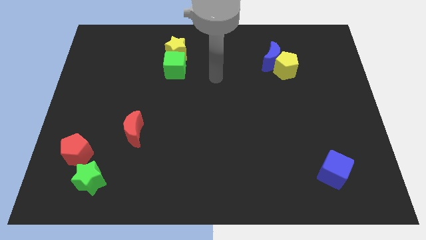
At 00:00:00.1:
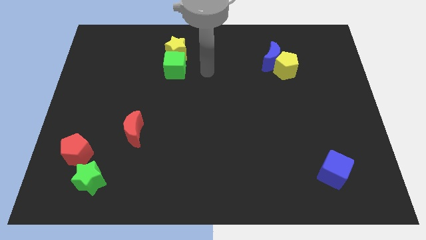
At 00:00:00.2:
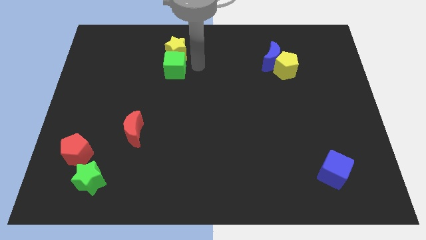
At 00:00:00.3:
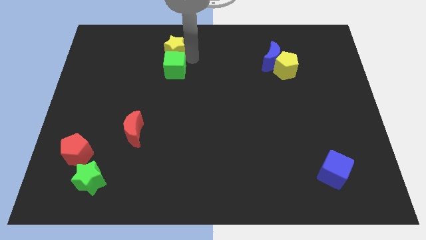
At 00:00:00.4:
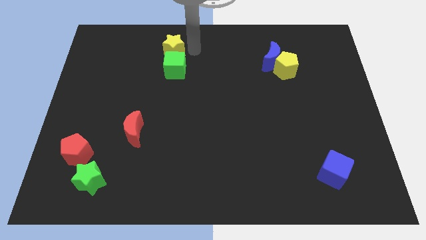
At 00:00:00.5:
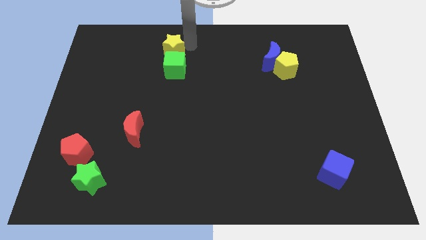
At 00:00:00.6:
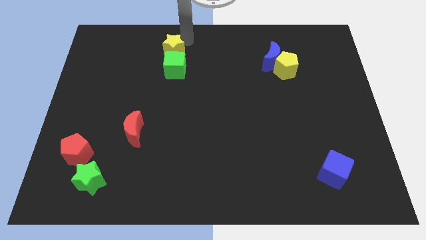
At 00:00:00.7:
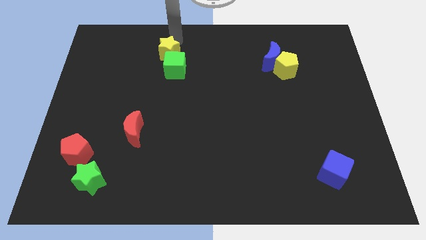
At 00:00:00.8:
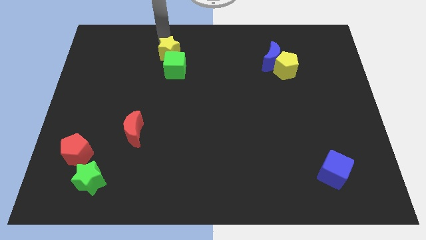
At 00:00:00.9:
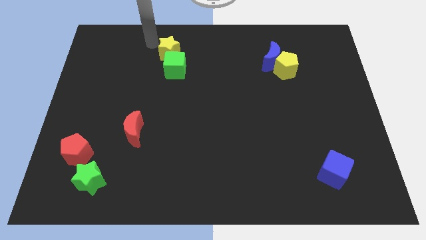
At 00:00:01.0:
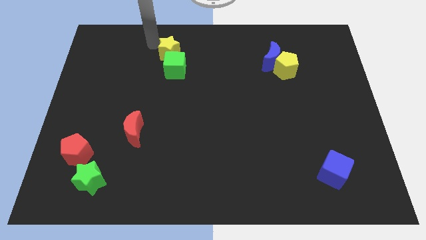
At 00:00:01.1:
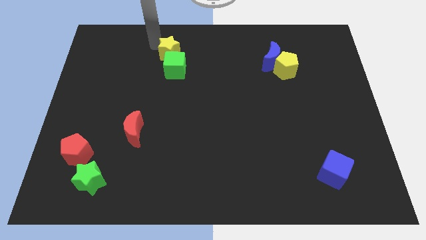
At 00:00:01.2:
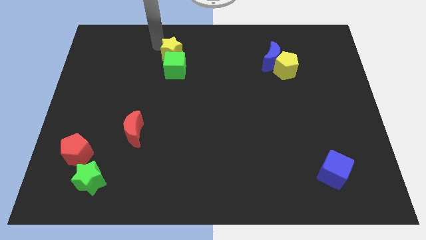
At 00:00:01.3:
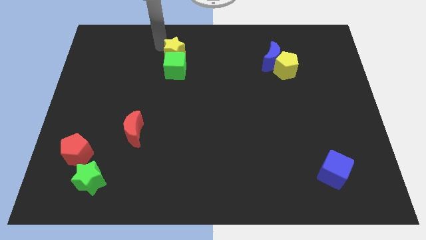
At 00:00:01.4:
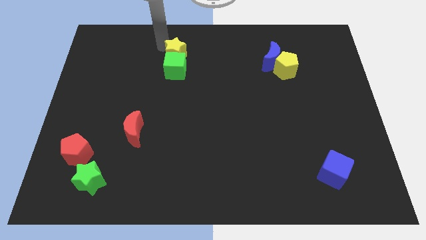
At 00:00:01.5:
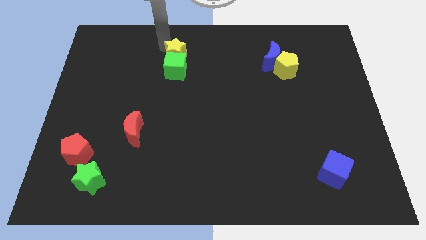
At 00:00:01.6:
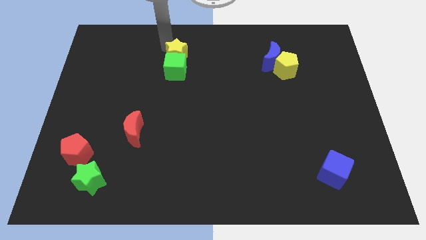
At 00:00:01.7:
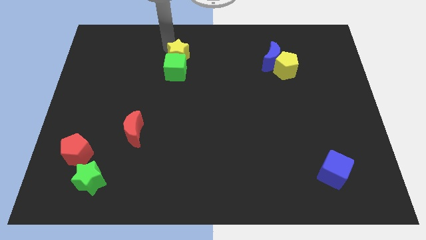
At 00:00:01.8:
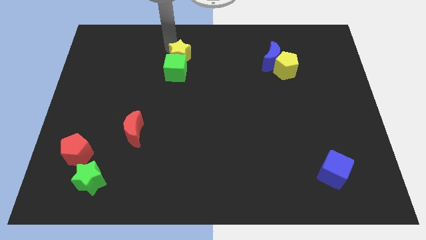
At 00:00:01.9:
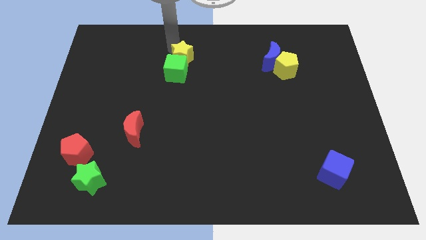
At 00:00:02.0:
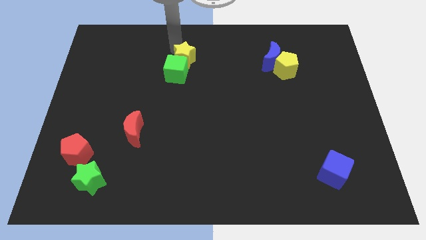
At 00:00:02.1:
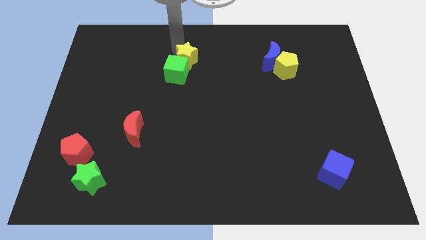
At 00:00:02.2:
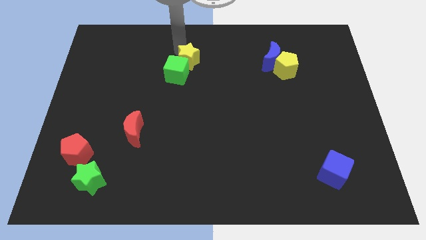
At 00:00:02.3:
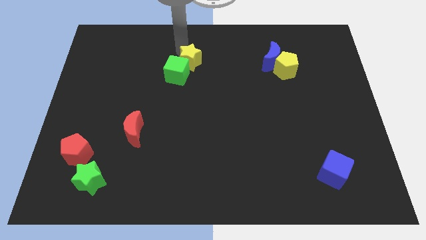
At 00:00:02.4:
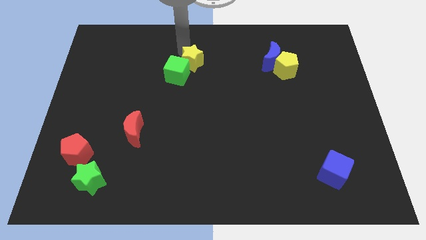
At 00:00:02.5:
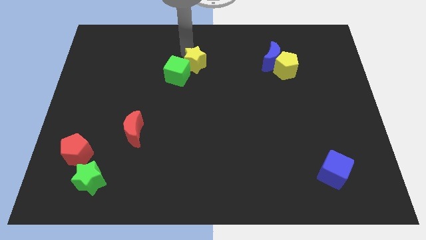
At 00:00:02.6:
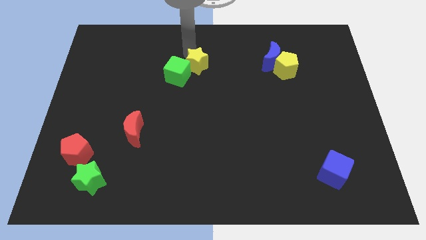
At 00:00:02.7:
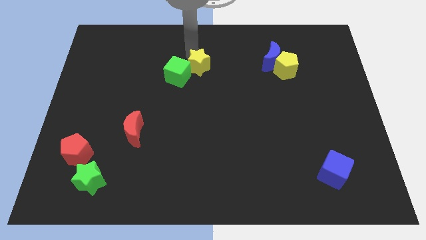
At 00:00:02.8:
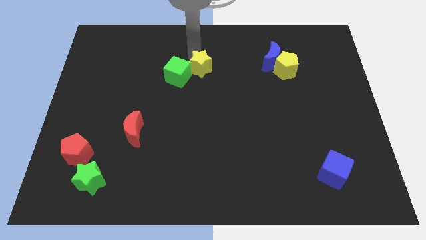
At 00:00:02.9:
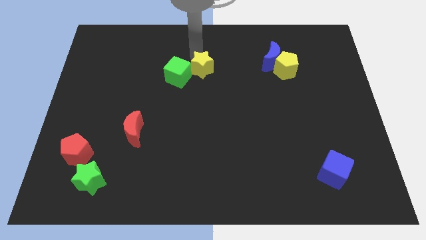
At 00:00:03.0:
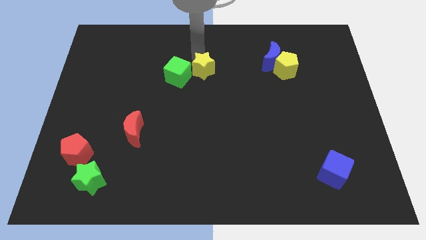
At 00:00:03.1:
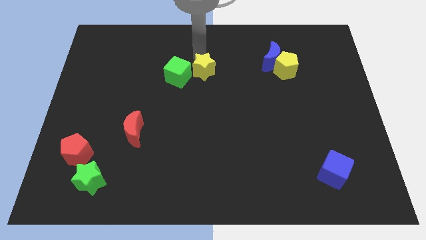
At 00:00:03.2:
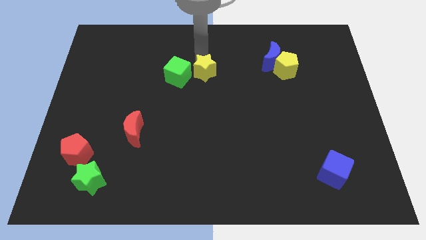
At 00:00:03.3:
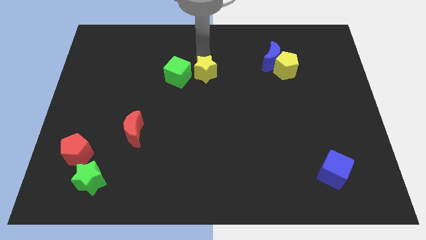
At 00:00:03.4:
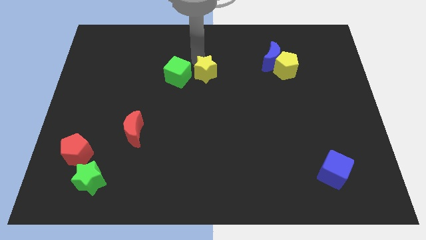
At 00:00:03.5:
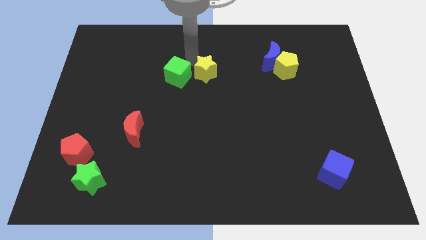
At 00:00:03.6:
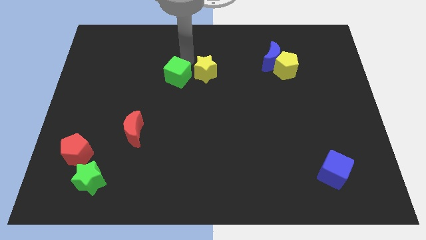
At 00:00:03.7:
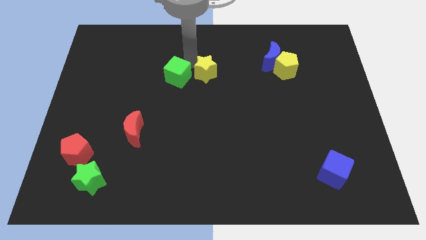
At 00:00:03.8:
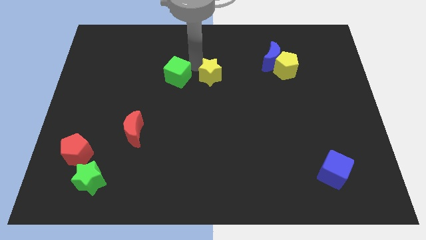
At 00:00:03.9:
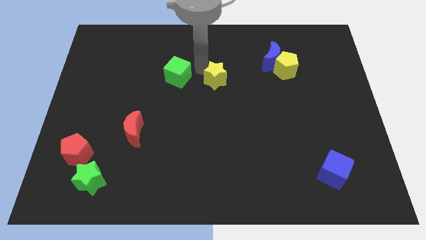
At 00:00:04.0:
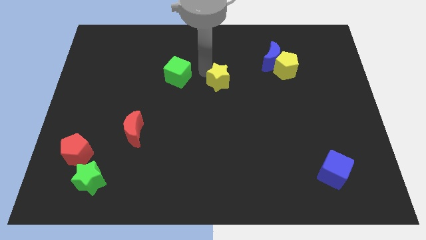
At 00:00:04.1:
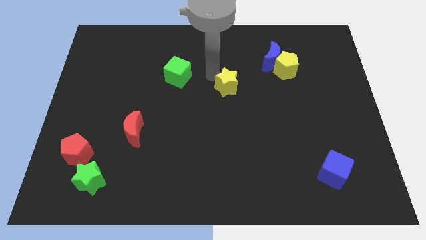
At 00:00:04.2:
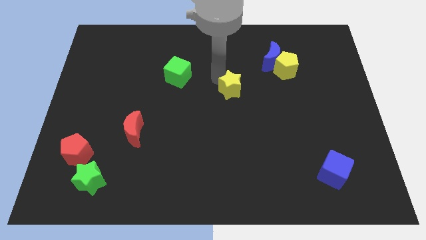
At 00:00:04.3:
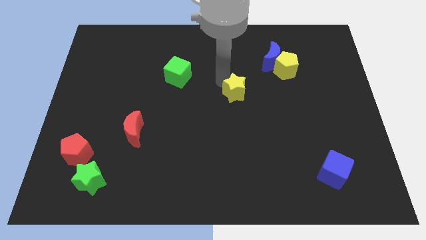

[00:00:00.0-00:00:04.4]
slide the yellow star diagonally down and to the right

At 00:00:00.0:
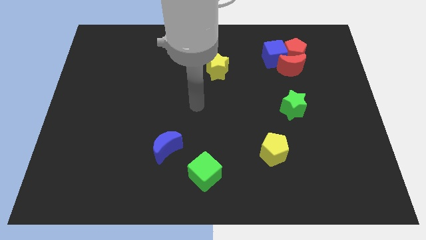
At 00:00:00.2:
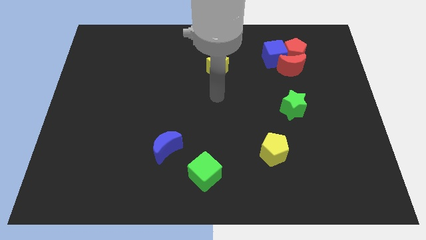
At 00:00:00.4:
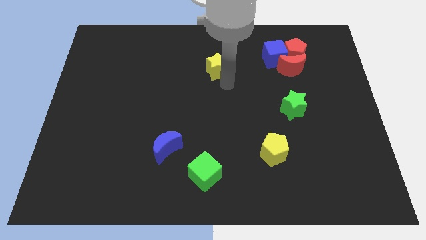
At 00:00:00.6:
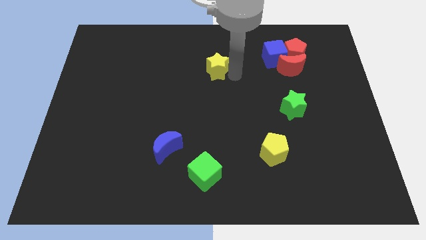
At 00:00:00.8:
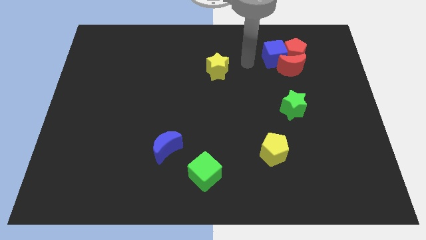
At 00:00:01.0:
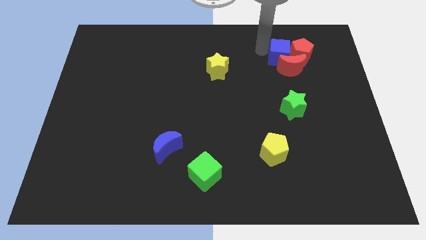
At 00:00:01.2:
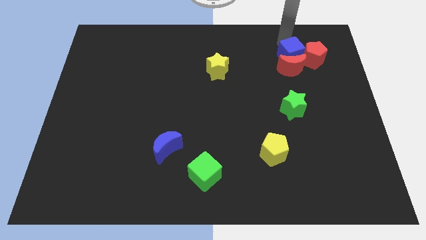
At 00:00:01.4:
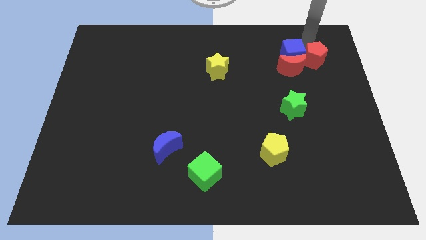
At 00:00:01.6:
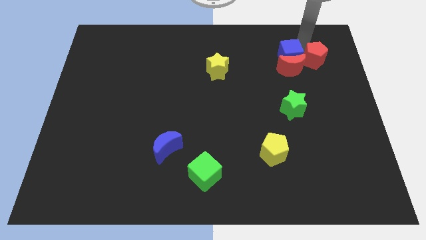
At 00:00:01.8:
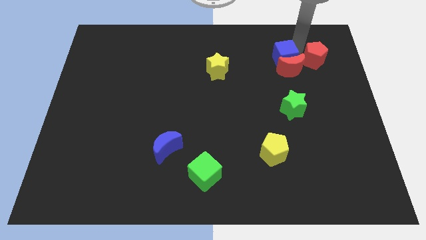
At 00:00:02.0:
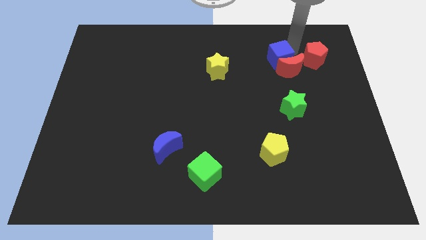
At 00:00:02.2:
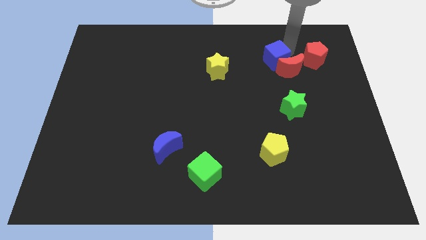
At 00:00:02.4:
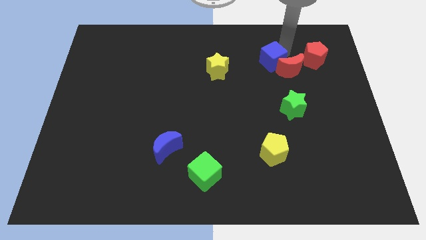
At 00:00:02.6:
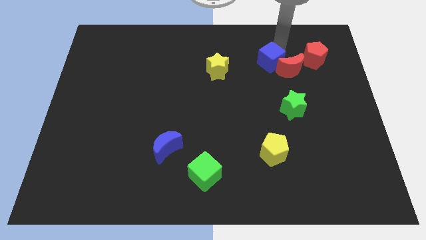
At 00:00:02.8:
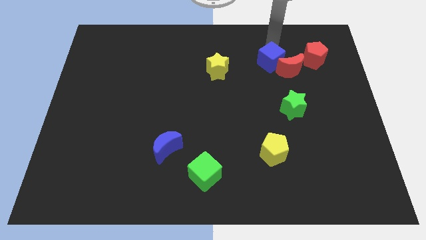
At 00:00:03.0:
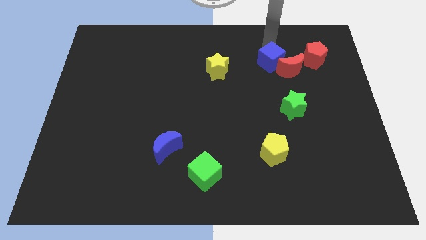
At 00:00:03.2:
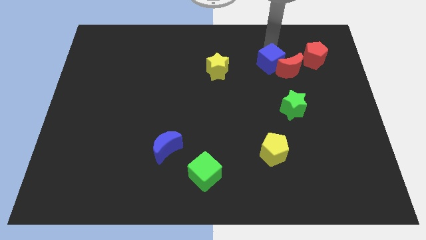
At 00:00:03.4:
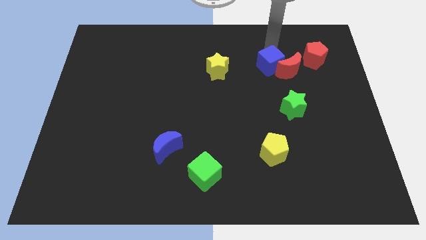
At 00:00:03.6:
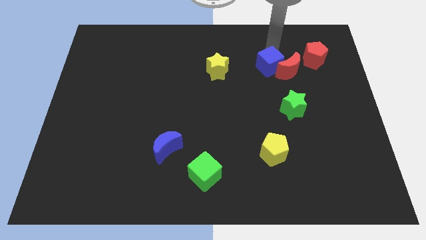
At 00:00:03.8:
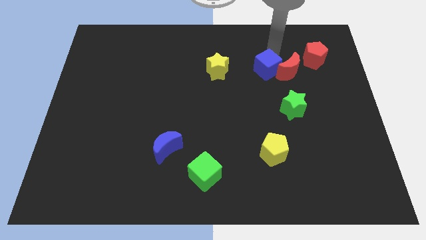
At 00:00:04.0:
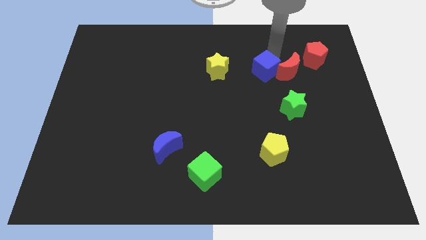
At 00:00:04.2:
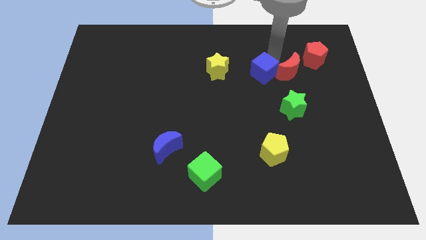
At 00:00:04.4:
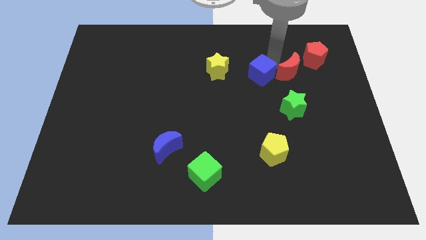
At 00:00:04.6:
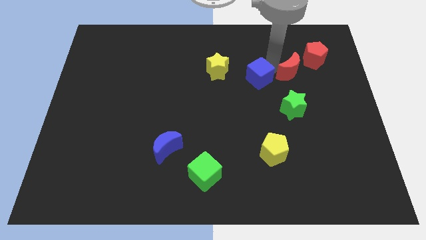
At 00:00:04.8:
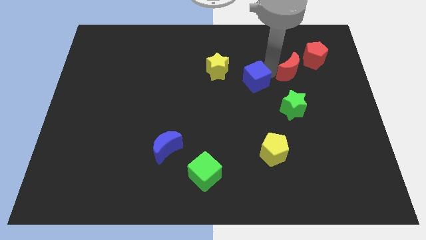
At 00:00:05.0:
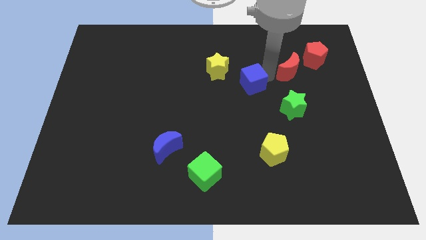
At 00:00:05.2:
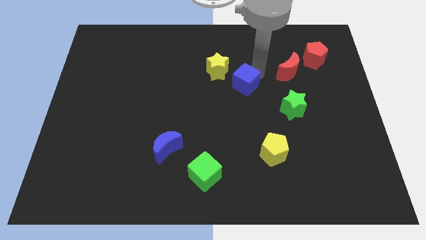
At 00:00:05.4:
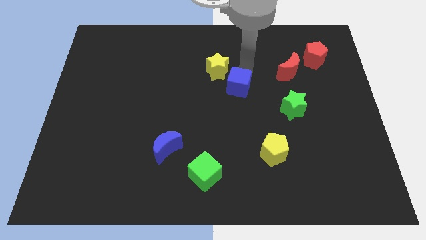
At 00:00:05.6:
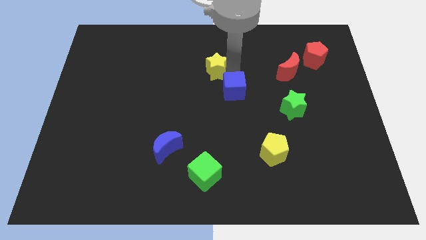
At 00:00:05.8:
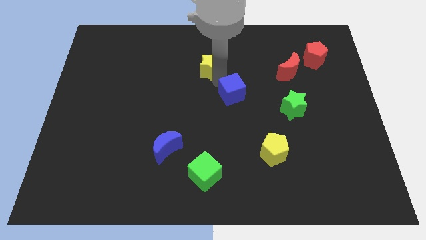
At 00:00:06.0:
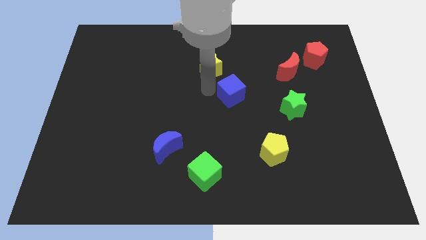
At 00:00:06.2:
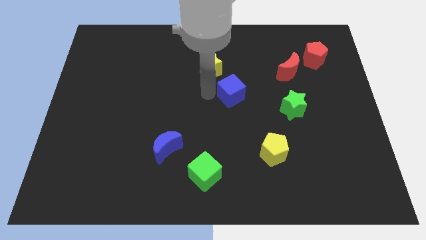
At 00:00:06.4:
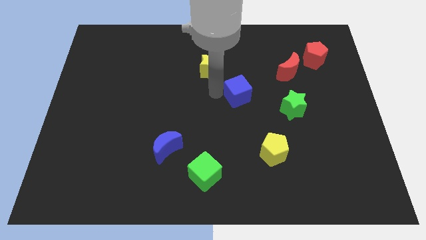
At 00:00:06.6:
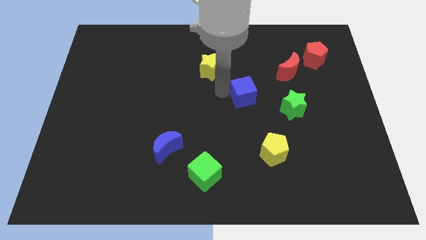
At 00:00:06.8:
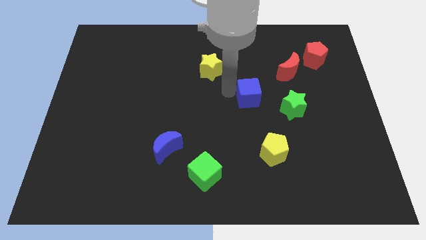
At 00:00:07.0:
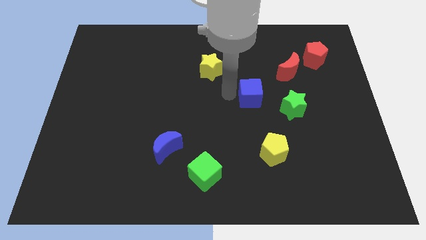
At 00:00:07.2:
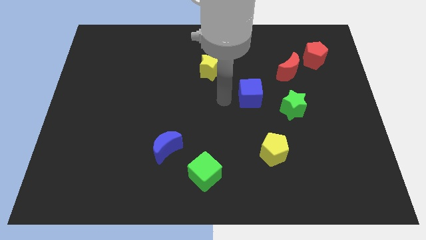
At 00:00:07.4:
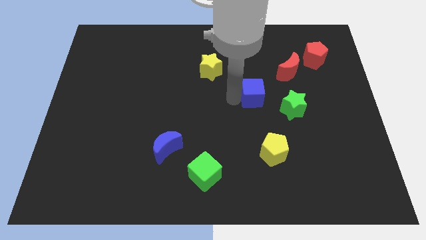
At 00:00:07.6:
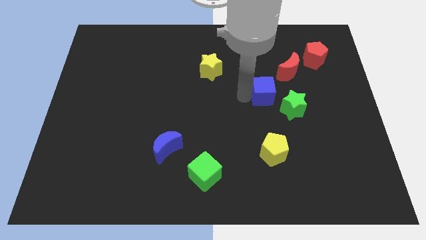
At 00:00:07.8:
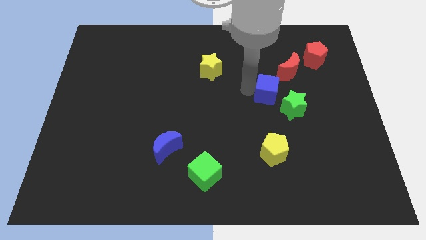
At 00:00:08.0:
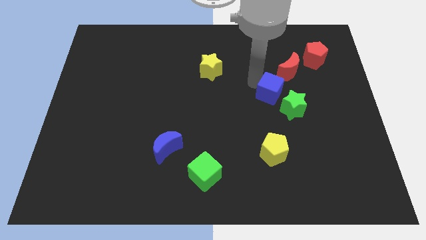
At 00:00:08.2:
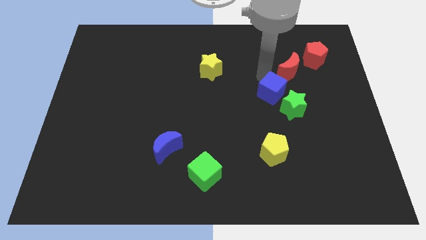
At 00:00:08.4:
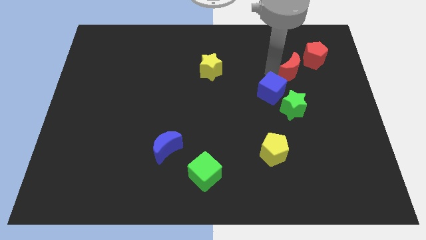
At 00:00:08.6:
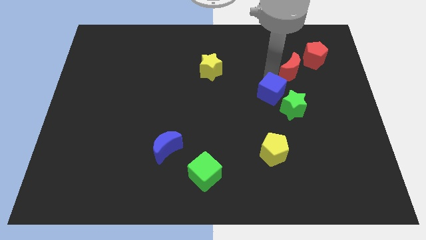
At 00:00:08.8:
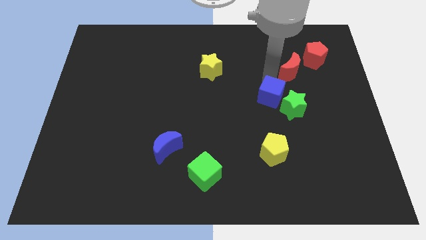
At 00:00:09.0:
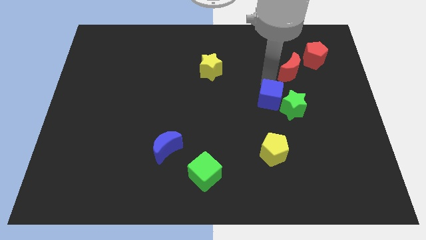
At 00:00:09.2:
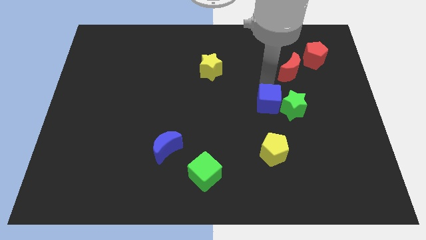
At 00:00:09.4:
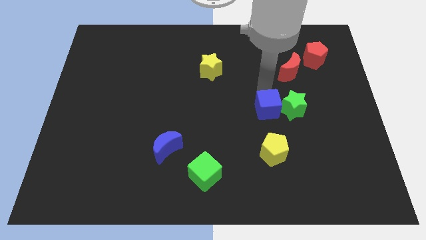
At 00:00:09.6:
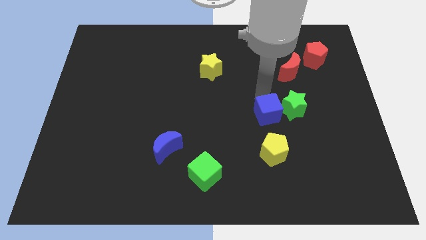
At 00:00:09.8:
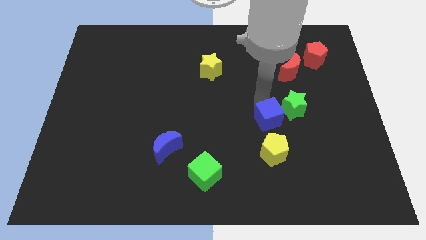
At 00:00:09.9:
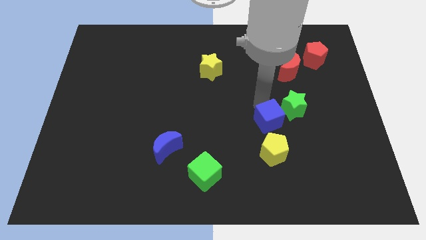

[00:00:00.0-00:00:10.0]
move the blue cube downwards
